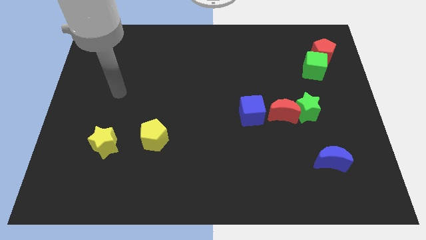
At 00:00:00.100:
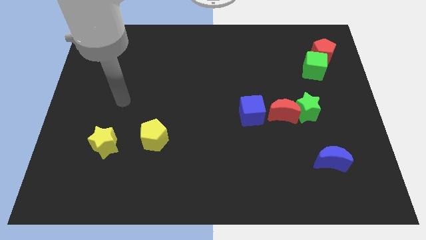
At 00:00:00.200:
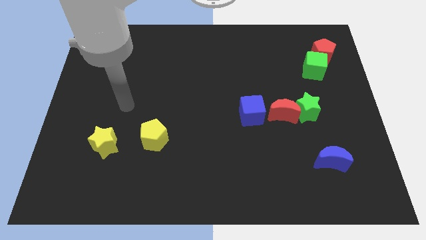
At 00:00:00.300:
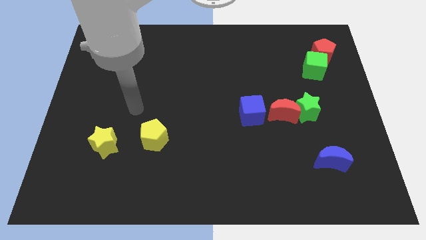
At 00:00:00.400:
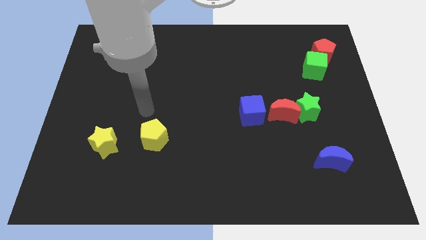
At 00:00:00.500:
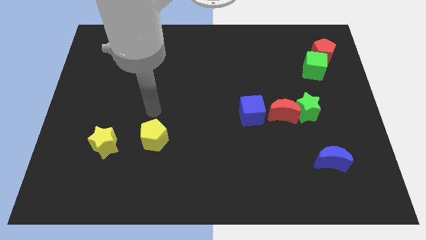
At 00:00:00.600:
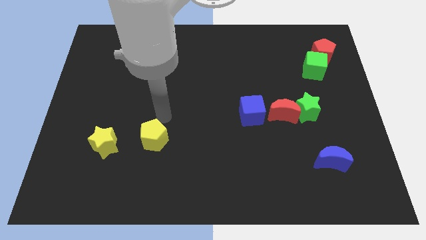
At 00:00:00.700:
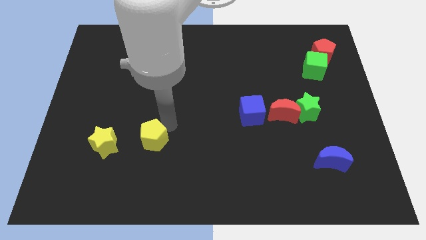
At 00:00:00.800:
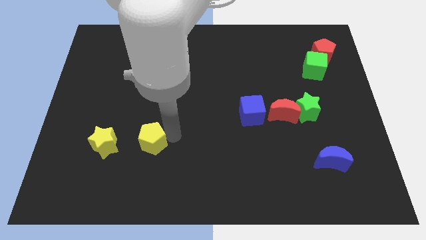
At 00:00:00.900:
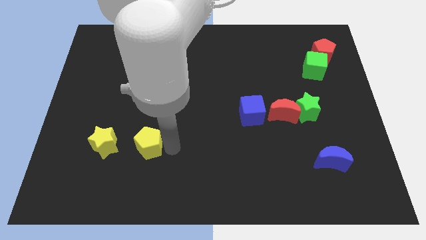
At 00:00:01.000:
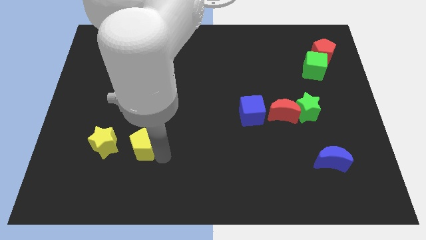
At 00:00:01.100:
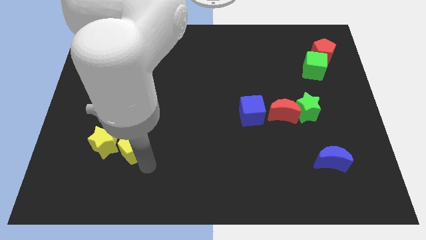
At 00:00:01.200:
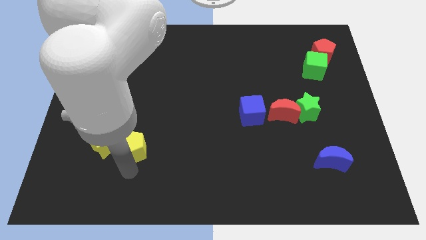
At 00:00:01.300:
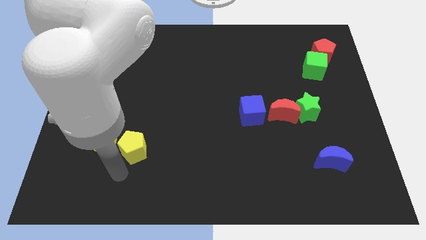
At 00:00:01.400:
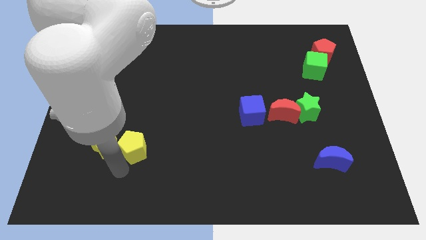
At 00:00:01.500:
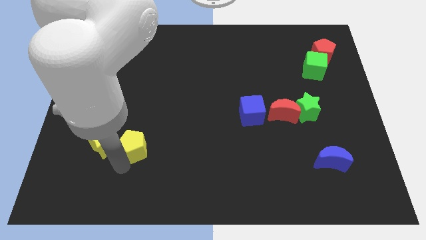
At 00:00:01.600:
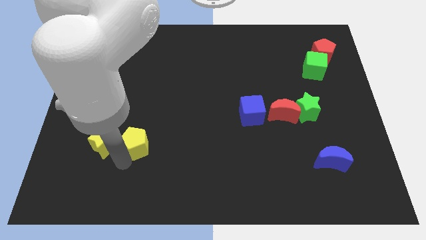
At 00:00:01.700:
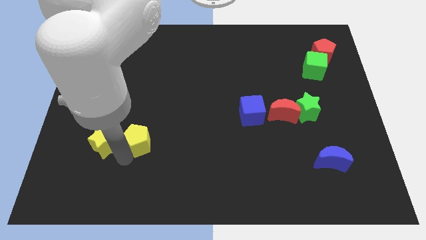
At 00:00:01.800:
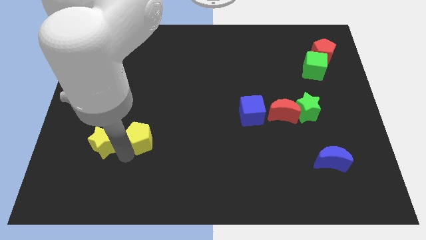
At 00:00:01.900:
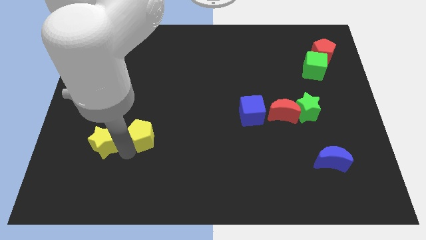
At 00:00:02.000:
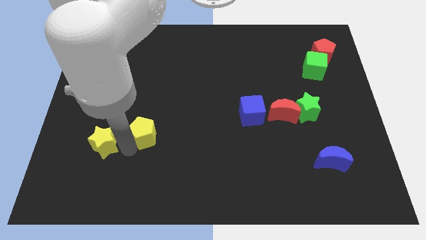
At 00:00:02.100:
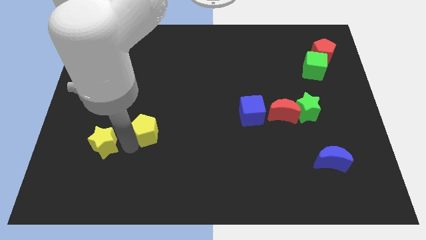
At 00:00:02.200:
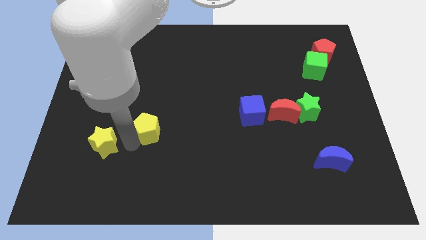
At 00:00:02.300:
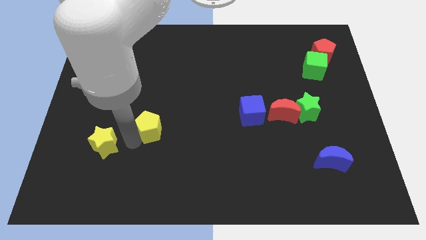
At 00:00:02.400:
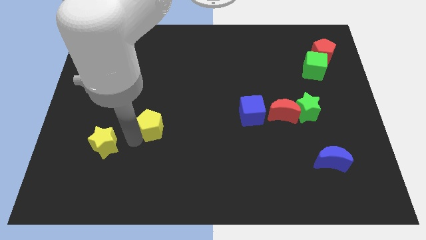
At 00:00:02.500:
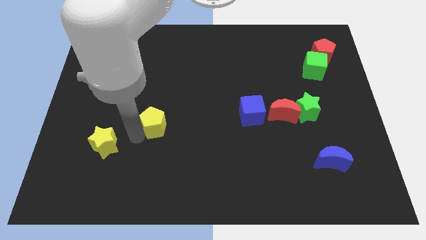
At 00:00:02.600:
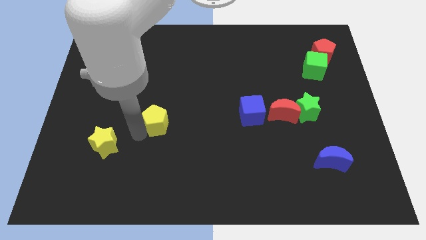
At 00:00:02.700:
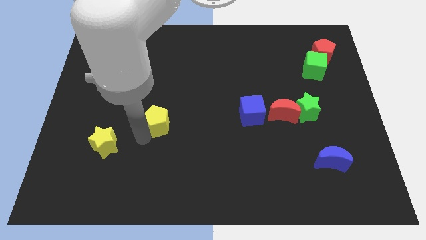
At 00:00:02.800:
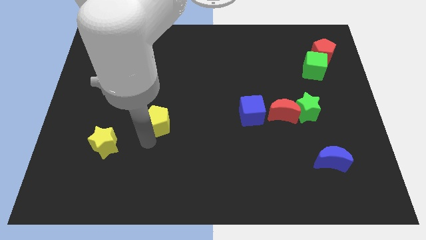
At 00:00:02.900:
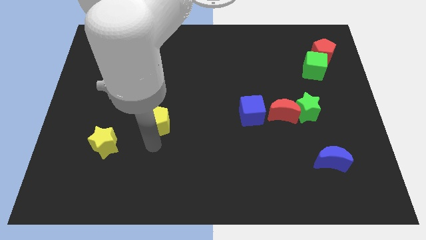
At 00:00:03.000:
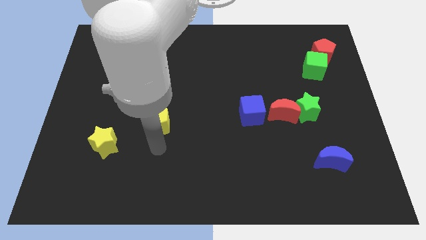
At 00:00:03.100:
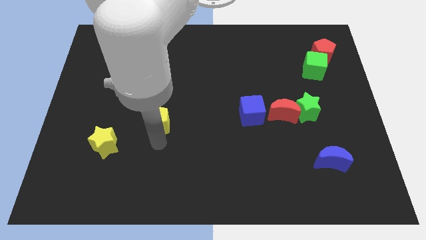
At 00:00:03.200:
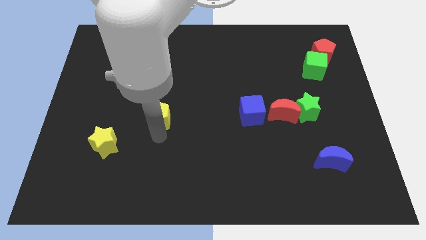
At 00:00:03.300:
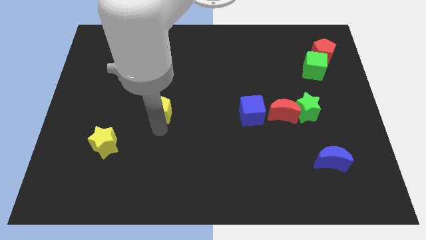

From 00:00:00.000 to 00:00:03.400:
push the yellow pentagon somewhat upwards

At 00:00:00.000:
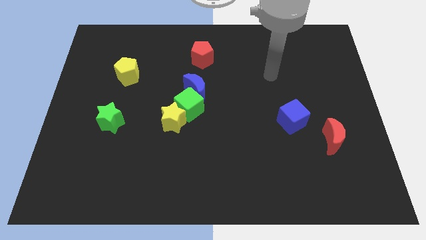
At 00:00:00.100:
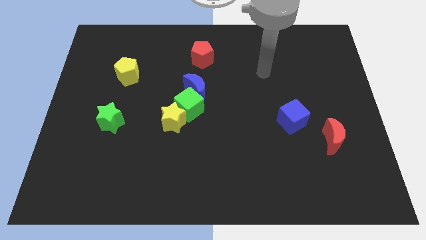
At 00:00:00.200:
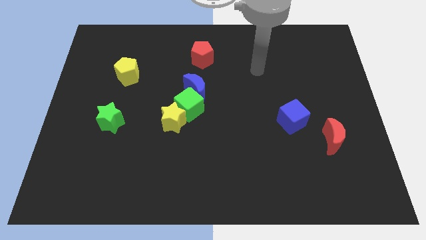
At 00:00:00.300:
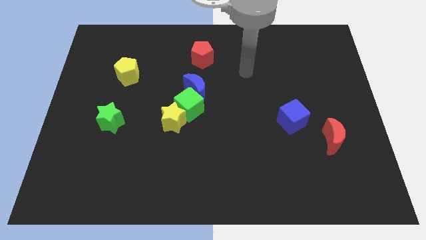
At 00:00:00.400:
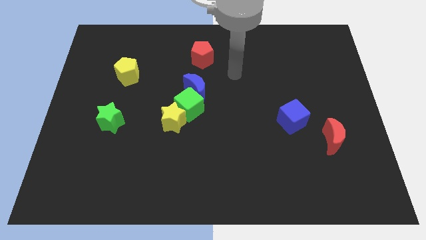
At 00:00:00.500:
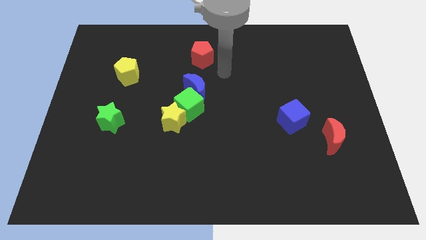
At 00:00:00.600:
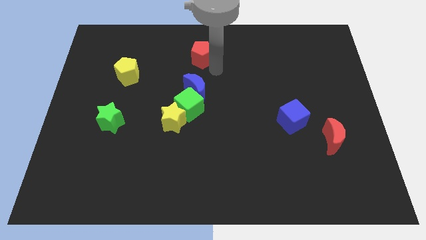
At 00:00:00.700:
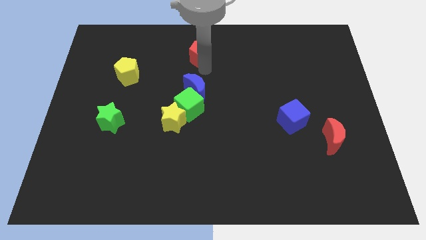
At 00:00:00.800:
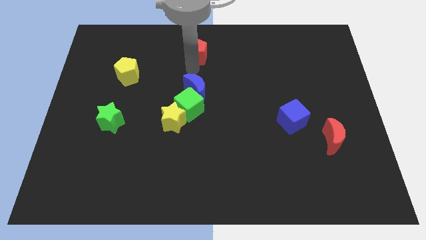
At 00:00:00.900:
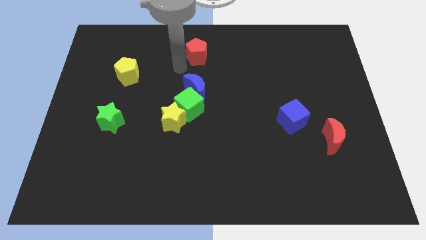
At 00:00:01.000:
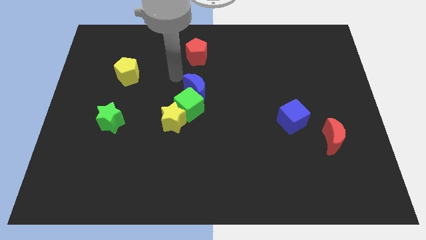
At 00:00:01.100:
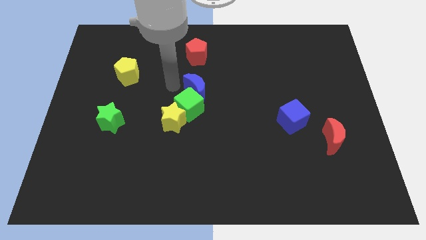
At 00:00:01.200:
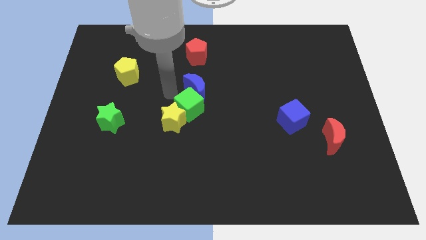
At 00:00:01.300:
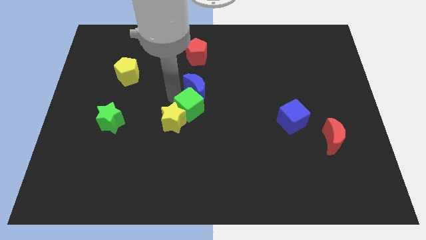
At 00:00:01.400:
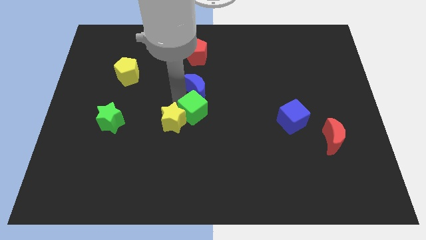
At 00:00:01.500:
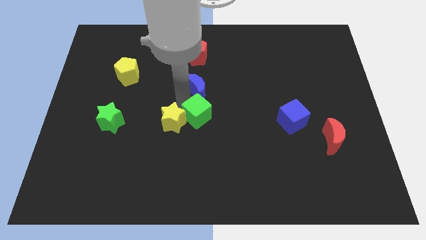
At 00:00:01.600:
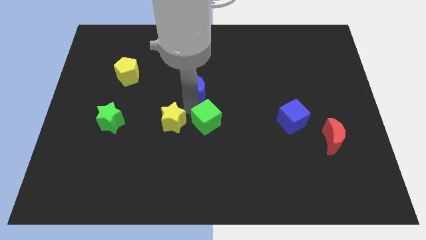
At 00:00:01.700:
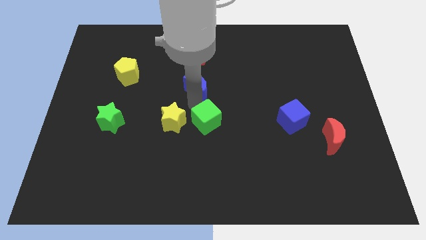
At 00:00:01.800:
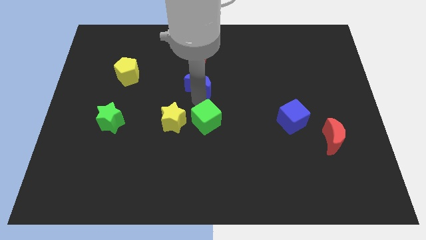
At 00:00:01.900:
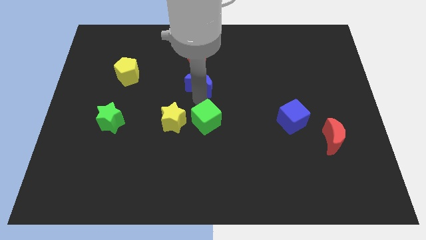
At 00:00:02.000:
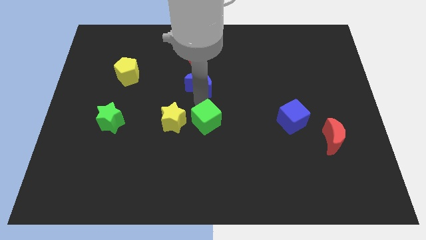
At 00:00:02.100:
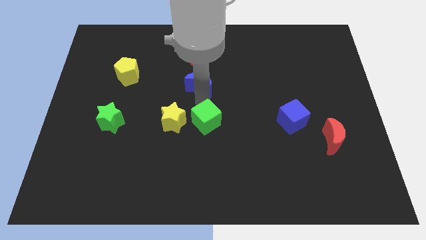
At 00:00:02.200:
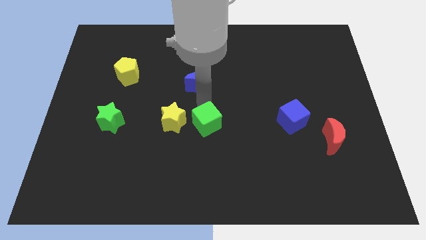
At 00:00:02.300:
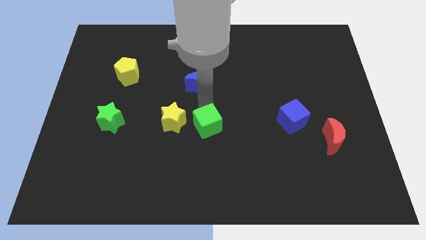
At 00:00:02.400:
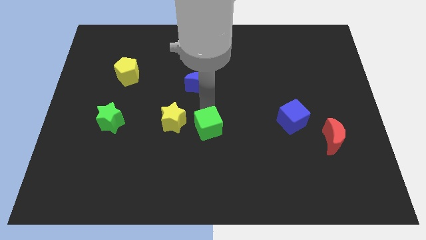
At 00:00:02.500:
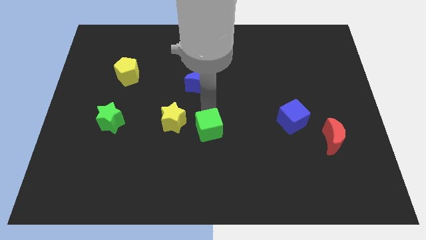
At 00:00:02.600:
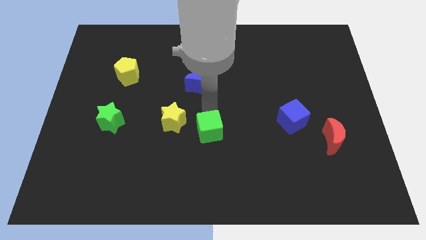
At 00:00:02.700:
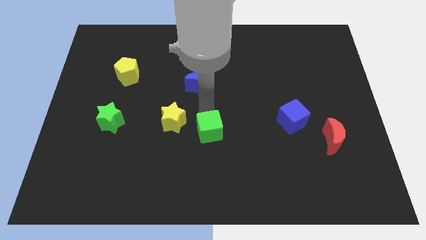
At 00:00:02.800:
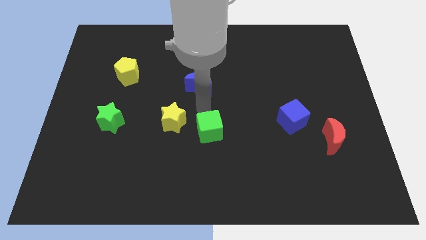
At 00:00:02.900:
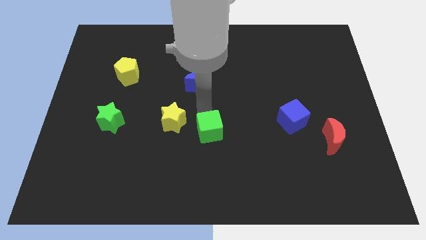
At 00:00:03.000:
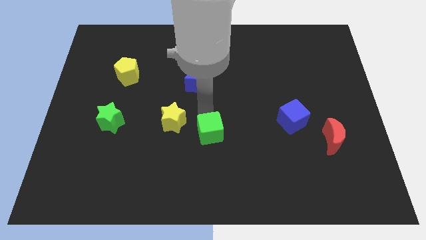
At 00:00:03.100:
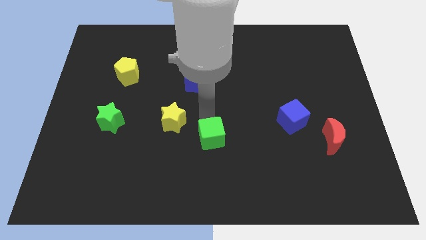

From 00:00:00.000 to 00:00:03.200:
slide the green cube somewhat down

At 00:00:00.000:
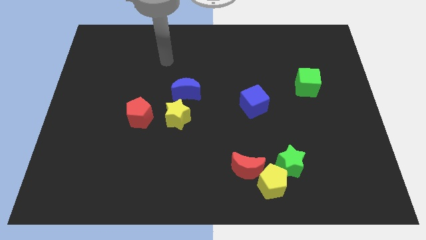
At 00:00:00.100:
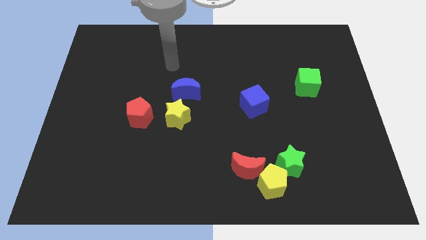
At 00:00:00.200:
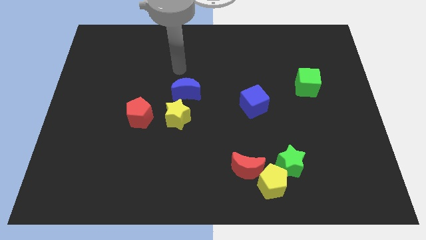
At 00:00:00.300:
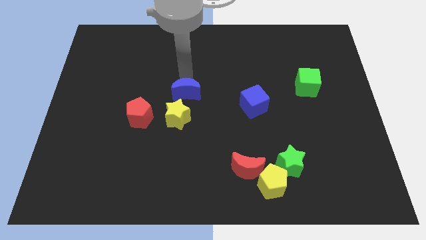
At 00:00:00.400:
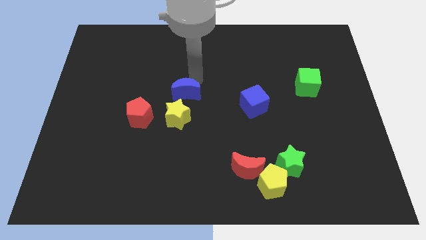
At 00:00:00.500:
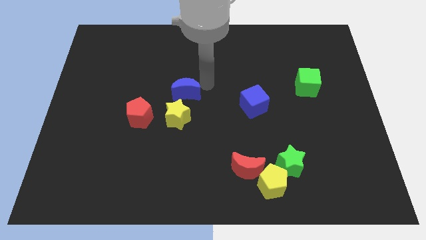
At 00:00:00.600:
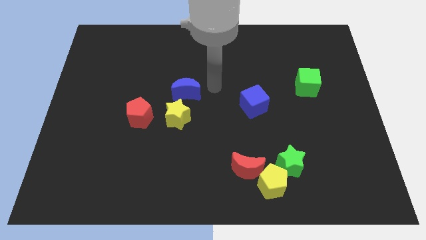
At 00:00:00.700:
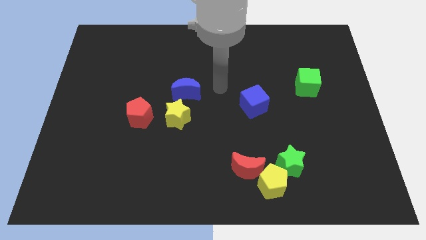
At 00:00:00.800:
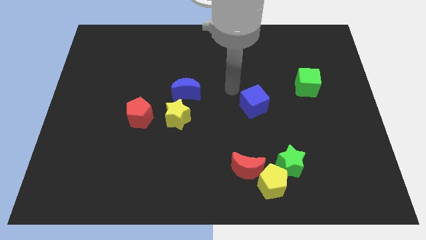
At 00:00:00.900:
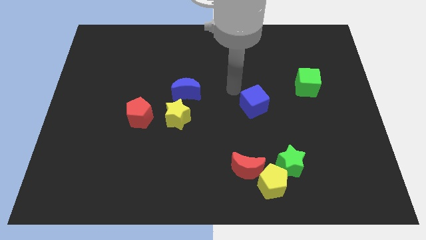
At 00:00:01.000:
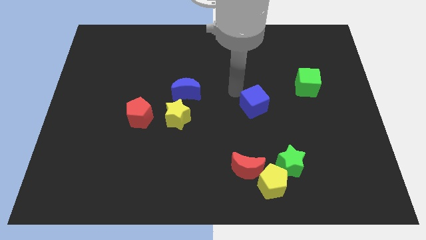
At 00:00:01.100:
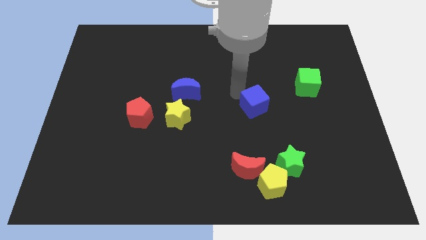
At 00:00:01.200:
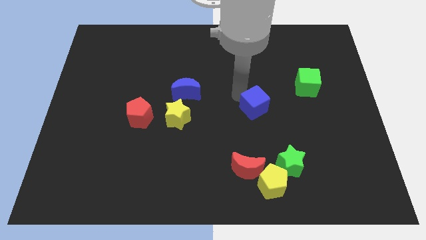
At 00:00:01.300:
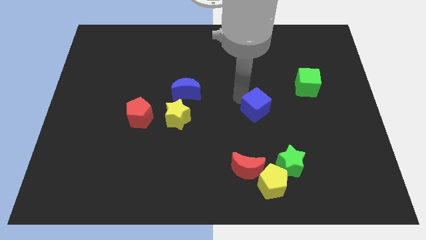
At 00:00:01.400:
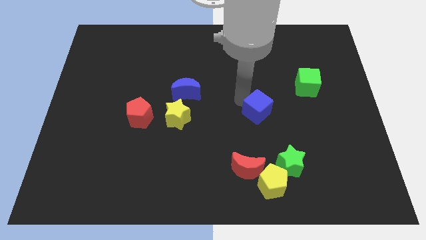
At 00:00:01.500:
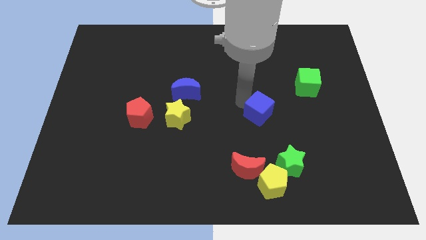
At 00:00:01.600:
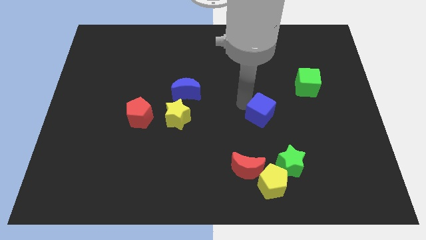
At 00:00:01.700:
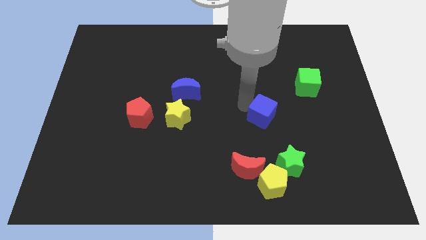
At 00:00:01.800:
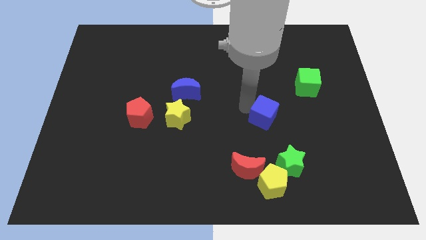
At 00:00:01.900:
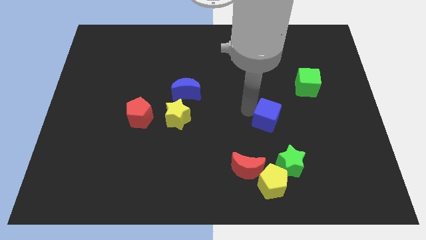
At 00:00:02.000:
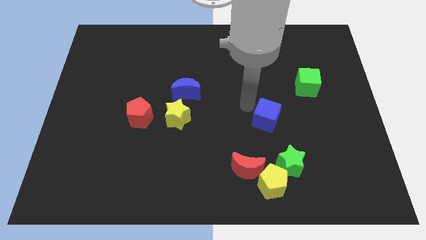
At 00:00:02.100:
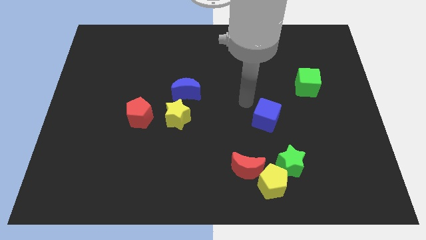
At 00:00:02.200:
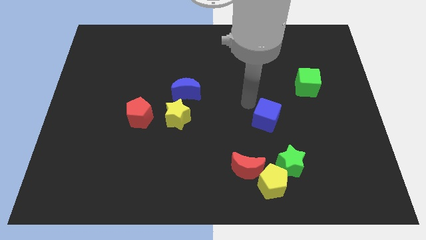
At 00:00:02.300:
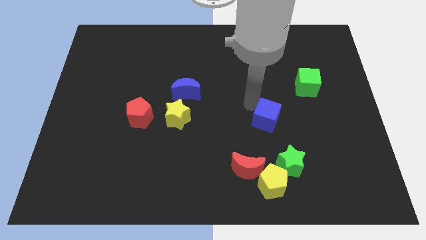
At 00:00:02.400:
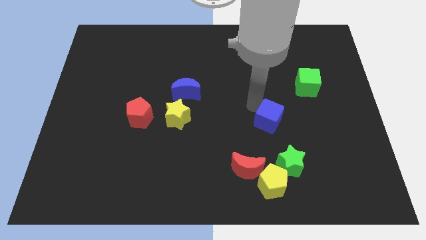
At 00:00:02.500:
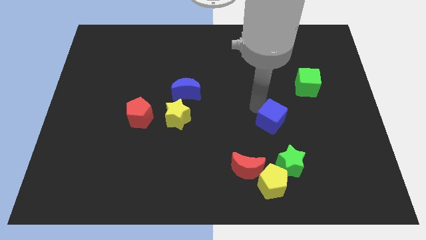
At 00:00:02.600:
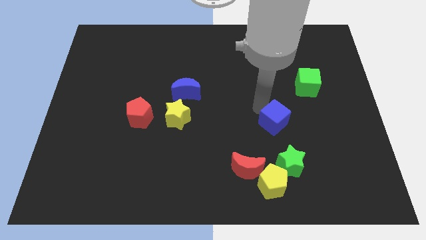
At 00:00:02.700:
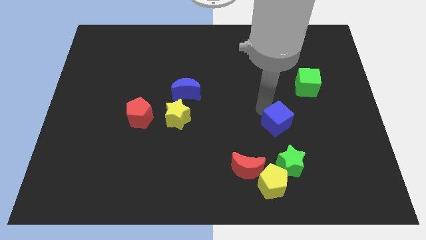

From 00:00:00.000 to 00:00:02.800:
slide the blue cube a little bit diagonally down and to the right
